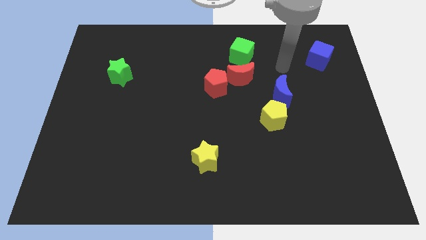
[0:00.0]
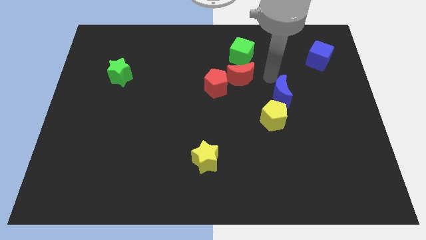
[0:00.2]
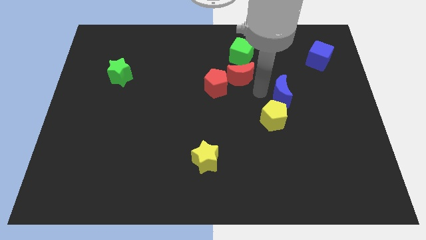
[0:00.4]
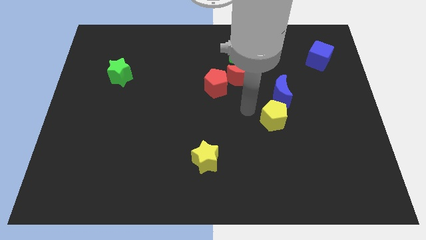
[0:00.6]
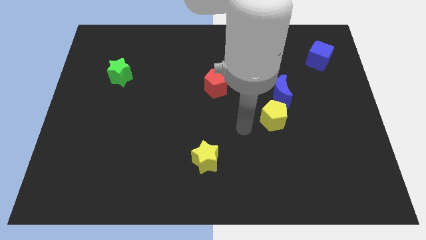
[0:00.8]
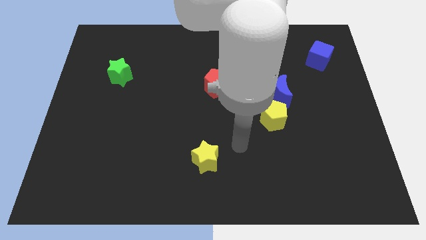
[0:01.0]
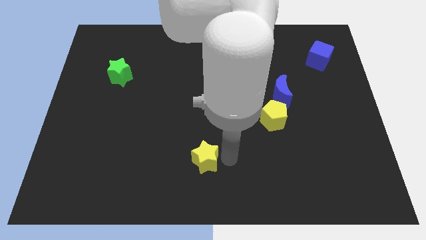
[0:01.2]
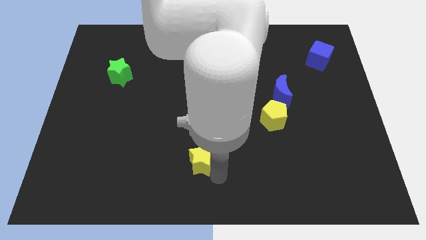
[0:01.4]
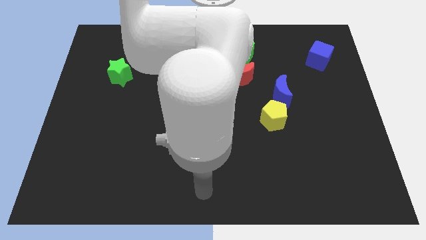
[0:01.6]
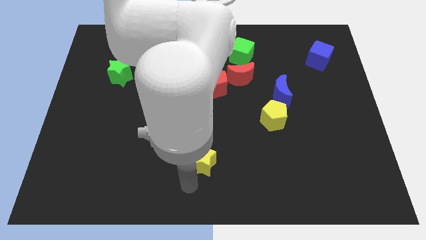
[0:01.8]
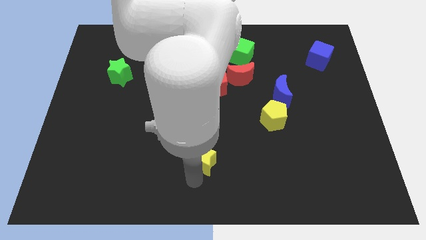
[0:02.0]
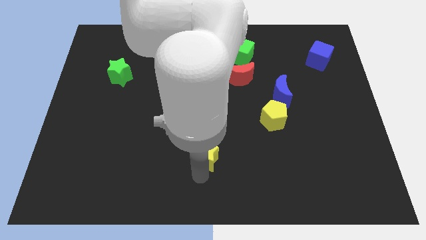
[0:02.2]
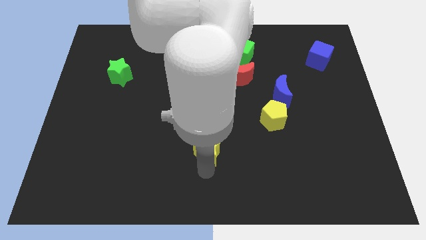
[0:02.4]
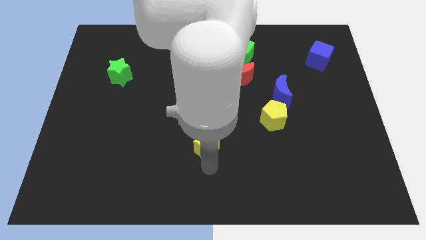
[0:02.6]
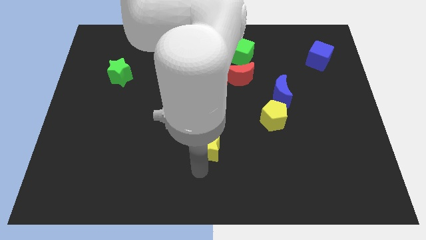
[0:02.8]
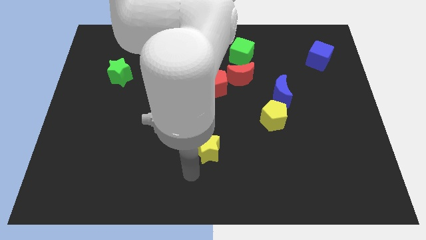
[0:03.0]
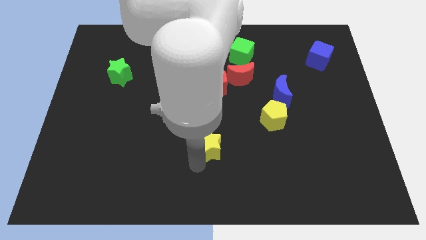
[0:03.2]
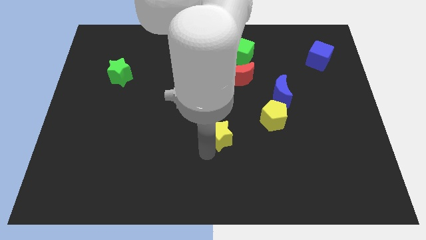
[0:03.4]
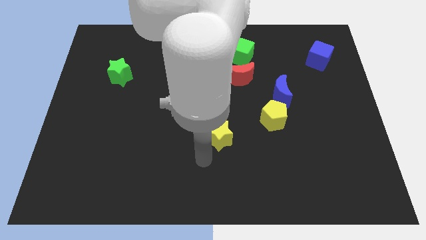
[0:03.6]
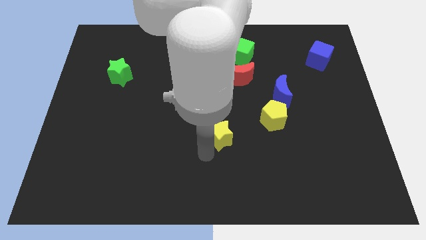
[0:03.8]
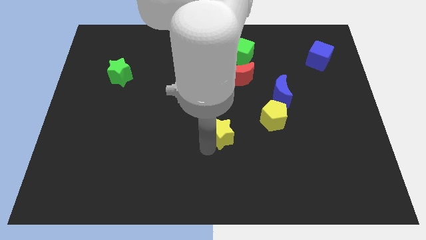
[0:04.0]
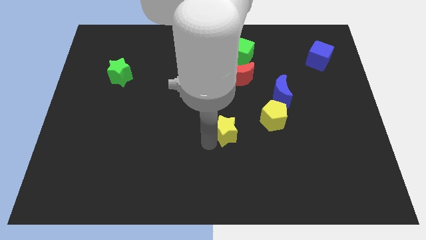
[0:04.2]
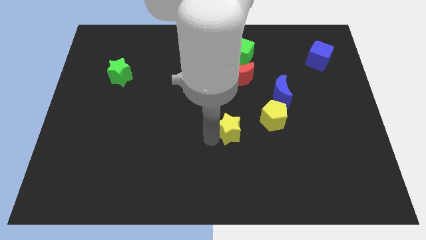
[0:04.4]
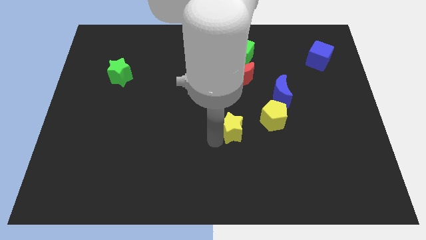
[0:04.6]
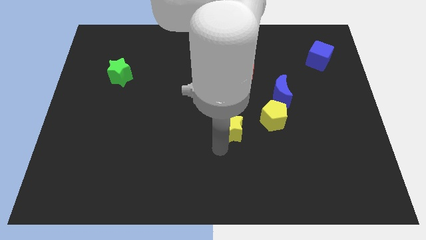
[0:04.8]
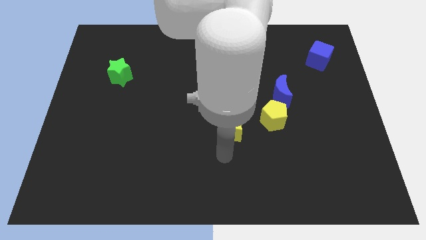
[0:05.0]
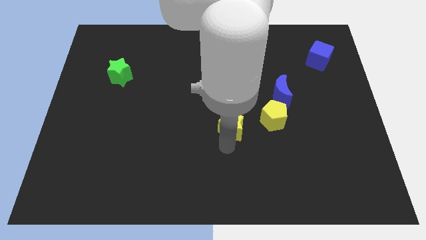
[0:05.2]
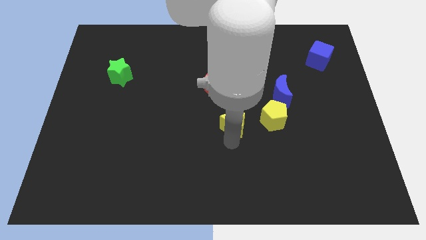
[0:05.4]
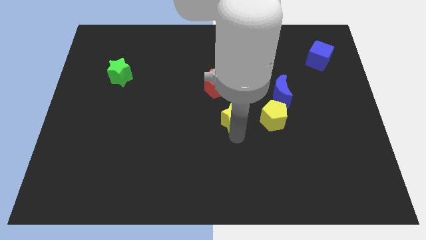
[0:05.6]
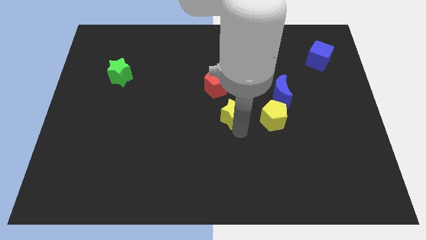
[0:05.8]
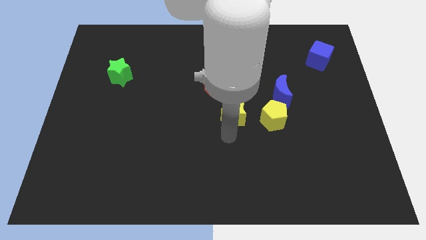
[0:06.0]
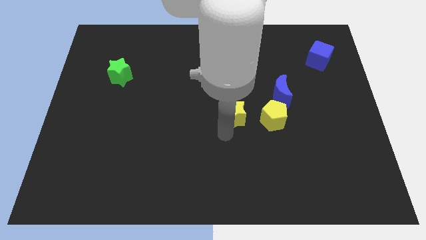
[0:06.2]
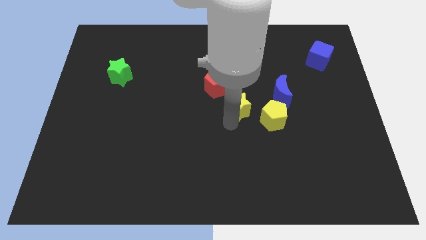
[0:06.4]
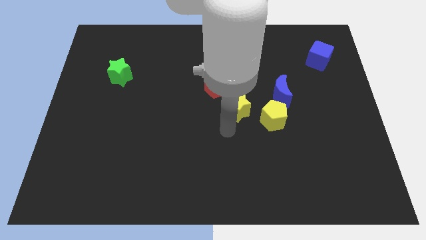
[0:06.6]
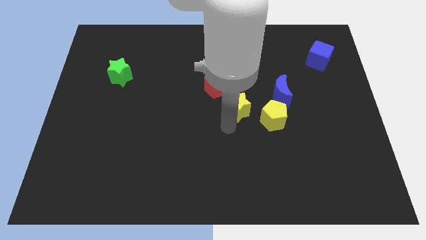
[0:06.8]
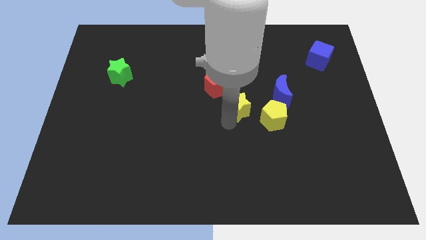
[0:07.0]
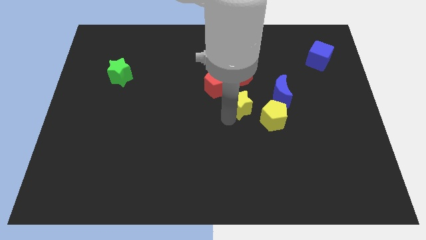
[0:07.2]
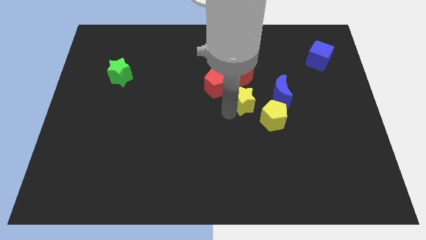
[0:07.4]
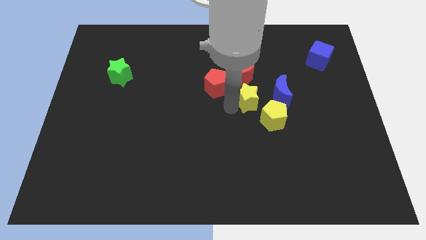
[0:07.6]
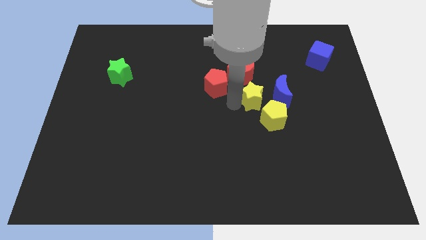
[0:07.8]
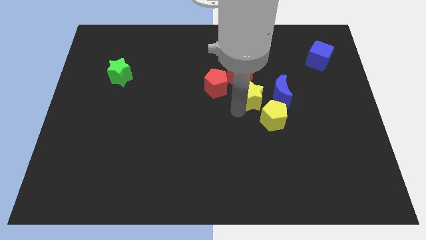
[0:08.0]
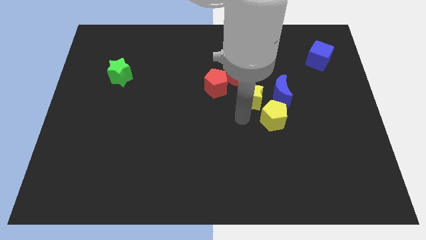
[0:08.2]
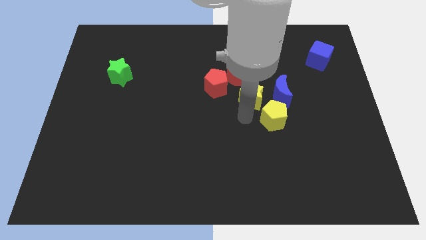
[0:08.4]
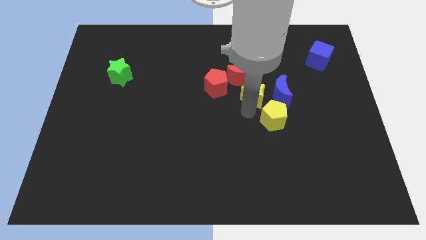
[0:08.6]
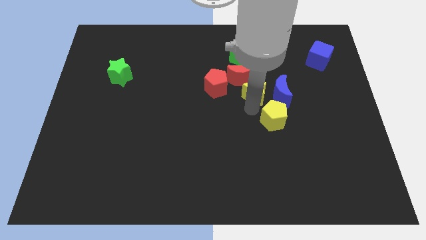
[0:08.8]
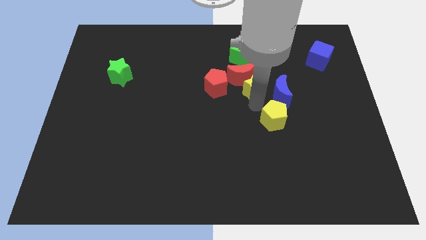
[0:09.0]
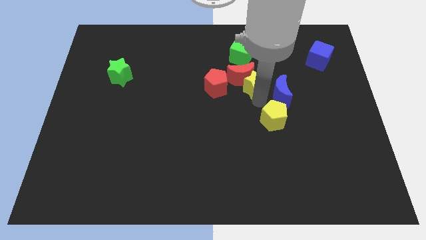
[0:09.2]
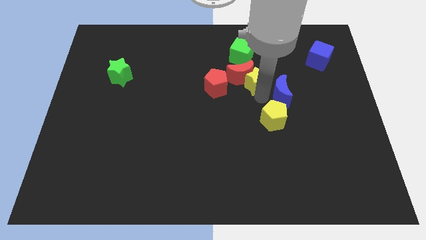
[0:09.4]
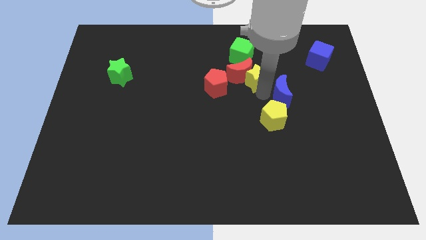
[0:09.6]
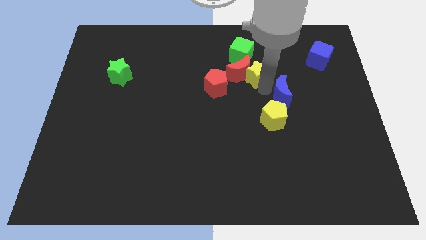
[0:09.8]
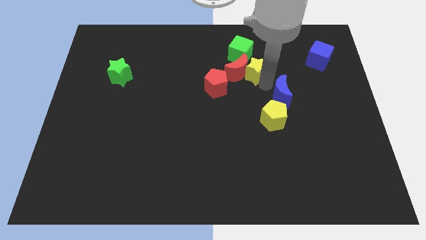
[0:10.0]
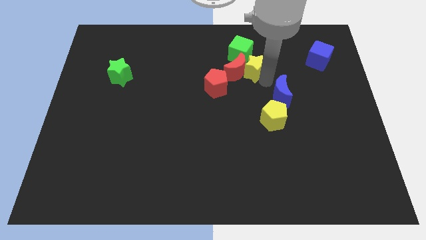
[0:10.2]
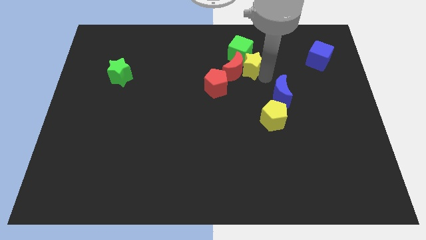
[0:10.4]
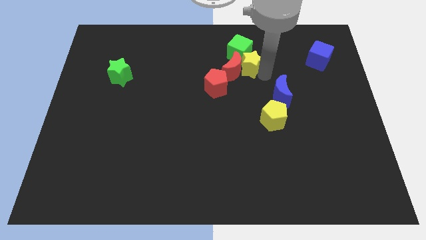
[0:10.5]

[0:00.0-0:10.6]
move the yellow star towards the green cube

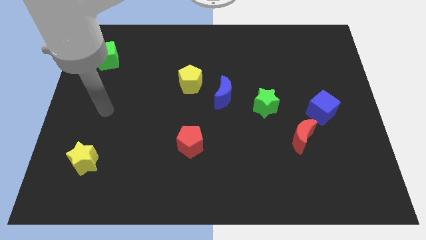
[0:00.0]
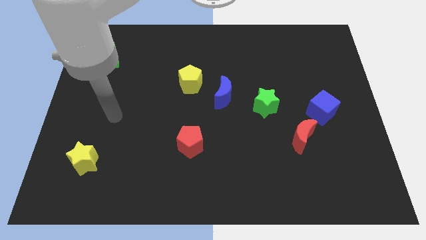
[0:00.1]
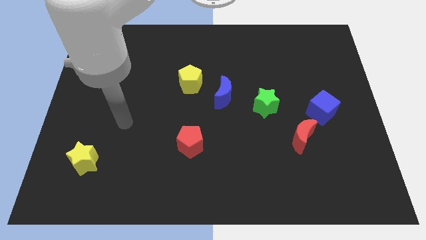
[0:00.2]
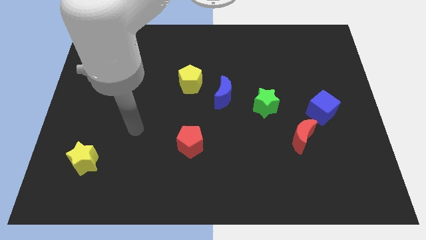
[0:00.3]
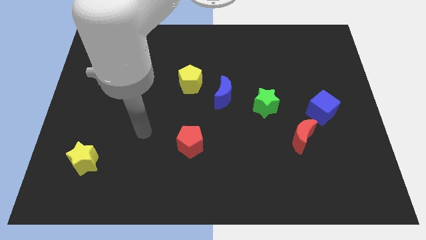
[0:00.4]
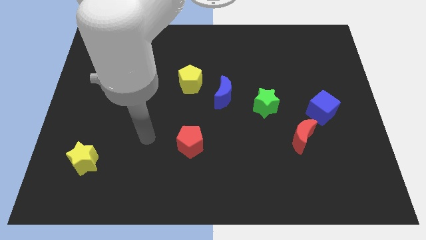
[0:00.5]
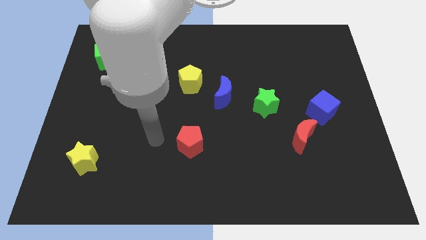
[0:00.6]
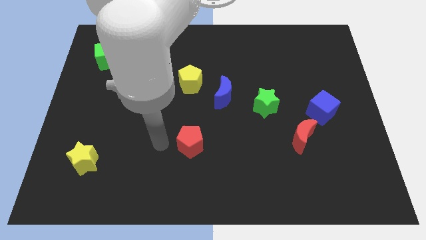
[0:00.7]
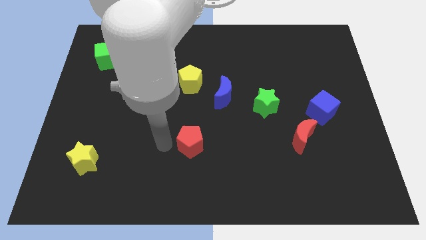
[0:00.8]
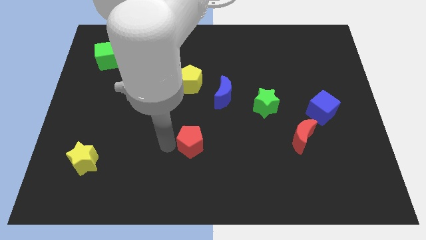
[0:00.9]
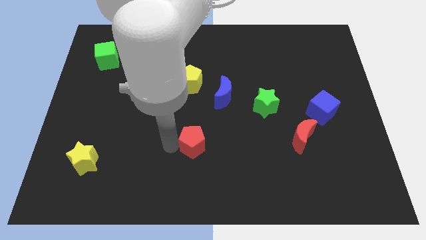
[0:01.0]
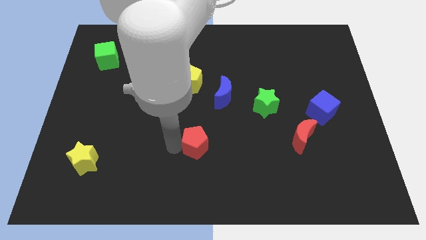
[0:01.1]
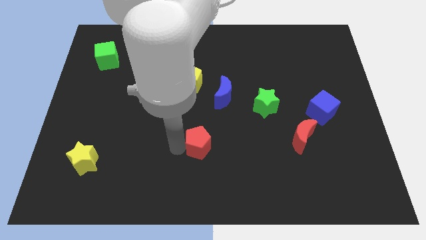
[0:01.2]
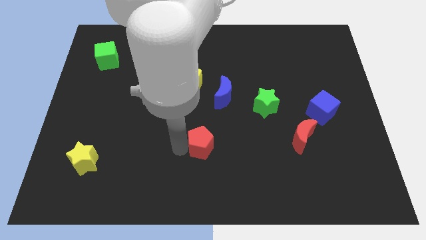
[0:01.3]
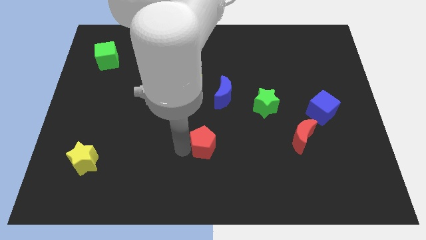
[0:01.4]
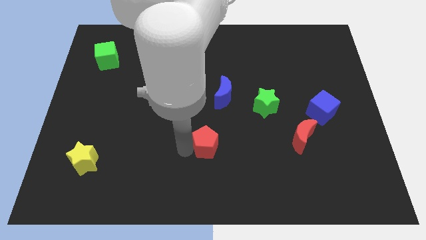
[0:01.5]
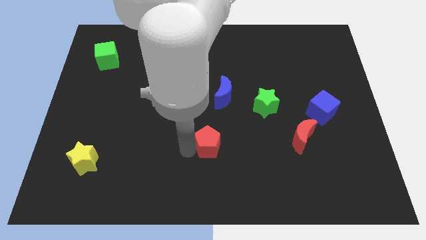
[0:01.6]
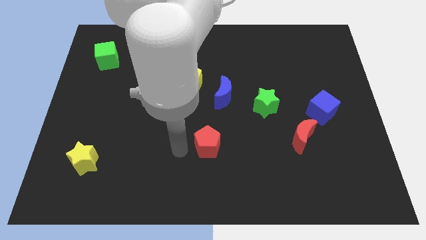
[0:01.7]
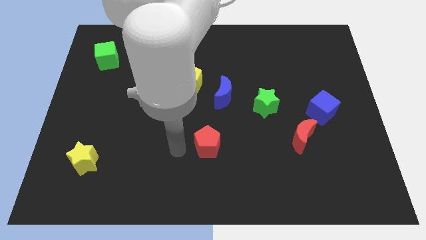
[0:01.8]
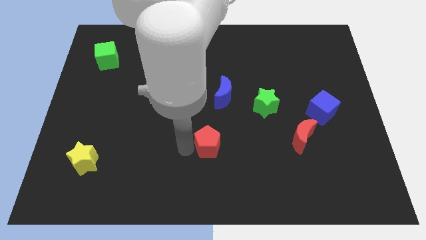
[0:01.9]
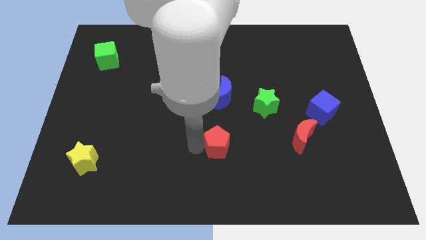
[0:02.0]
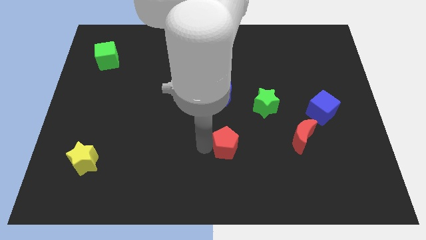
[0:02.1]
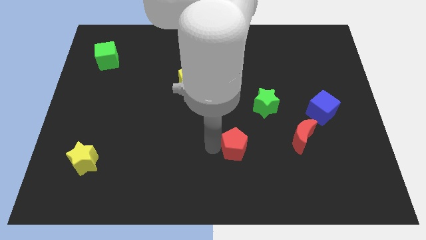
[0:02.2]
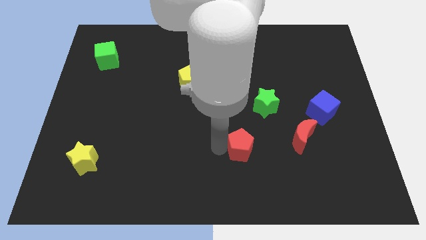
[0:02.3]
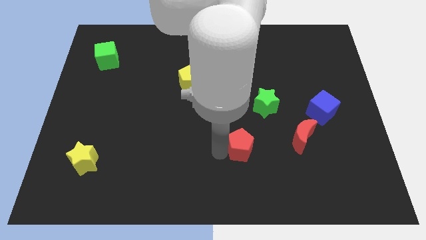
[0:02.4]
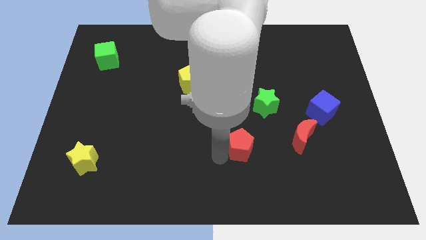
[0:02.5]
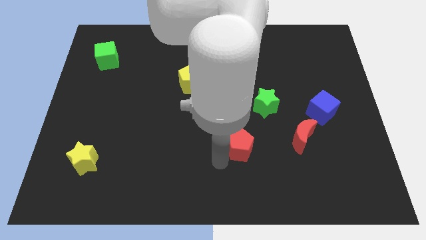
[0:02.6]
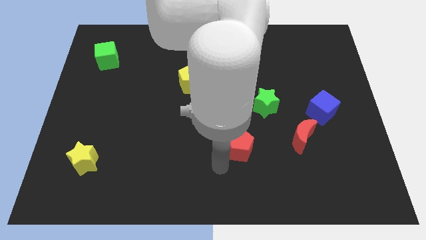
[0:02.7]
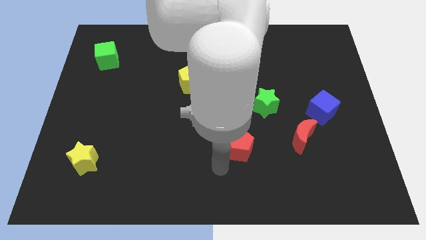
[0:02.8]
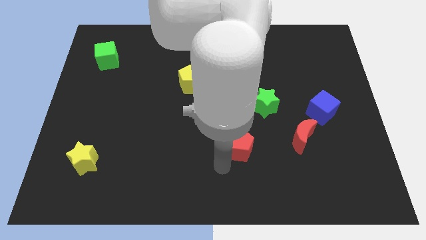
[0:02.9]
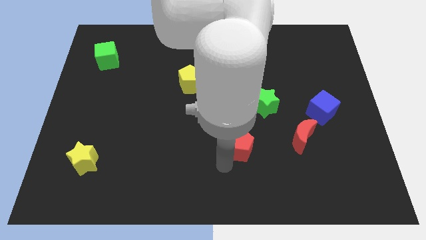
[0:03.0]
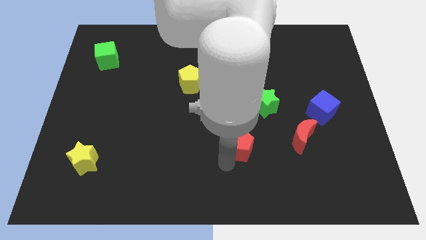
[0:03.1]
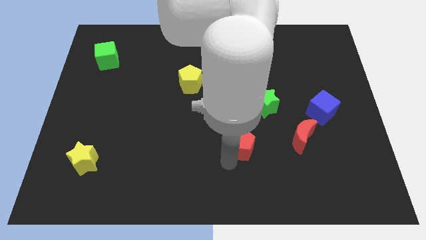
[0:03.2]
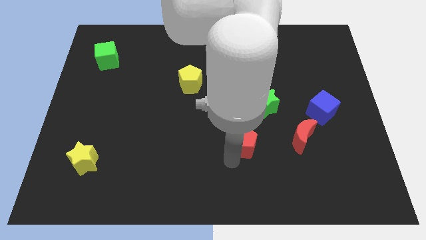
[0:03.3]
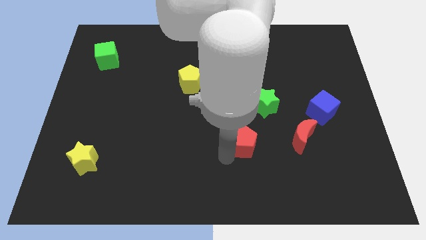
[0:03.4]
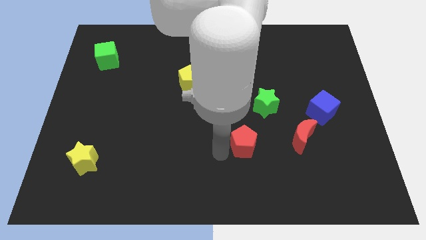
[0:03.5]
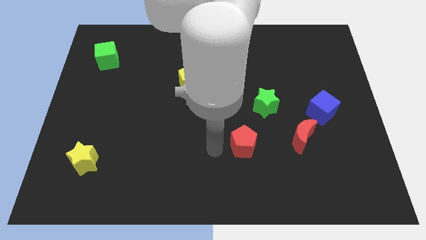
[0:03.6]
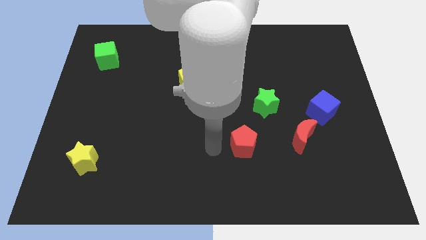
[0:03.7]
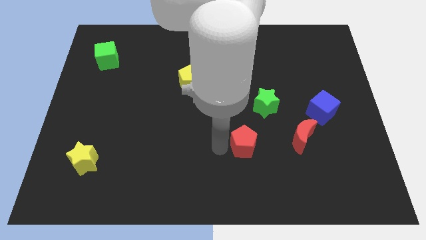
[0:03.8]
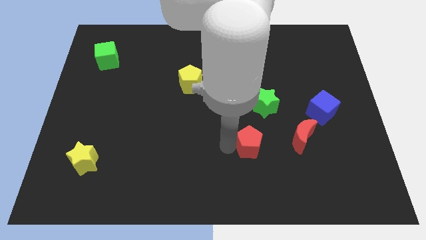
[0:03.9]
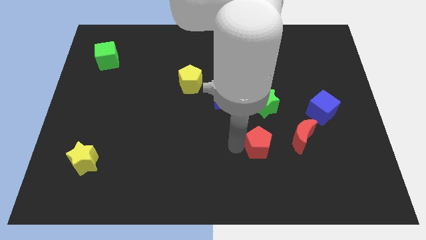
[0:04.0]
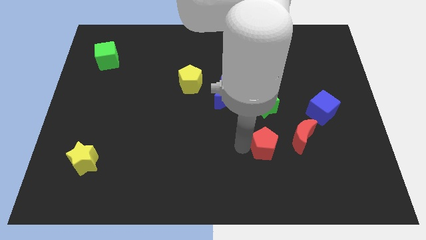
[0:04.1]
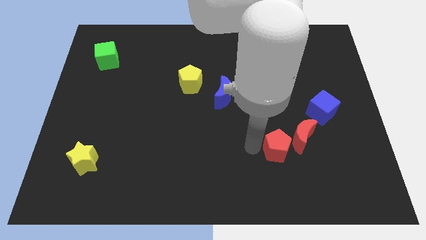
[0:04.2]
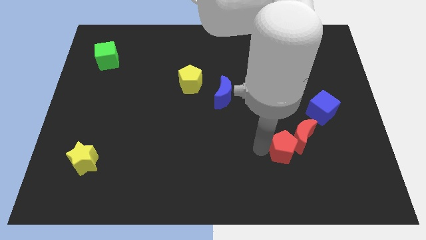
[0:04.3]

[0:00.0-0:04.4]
put the red pentagon close to the red moon
